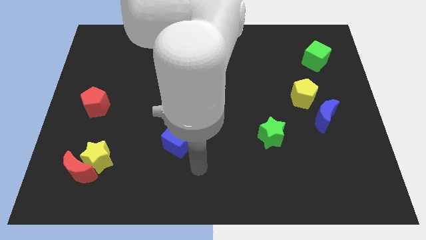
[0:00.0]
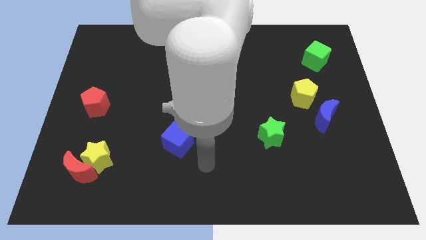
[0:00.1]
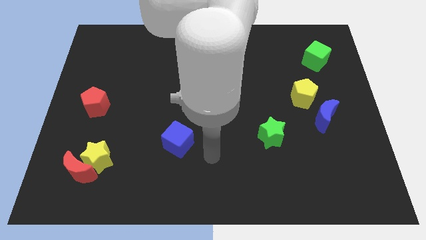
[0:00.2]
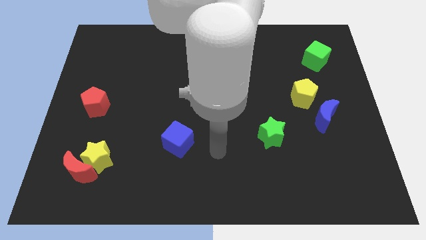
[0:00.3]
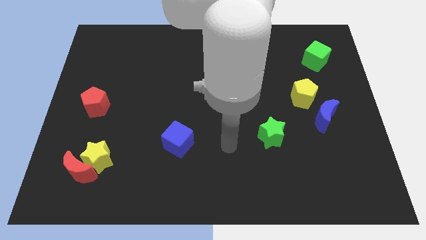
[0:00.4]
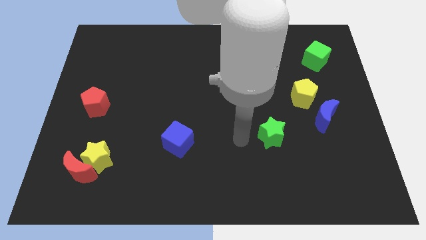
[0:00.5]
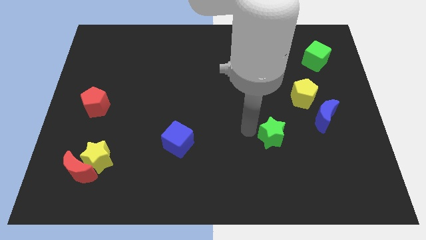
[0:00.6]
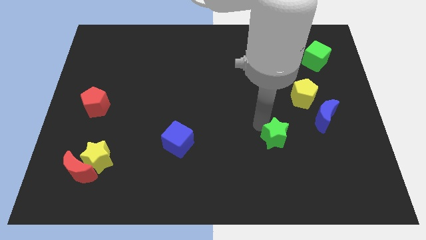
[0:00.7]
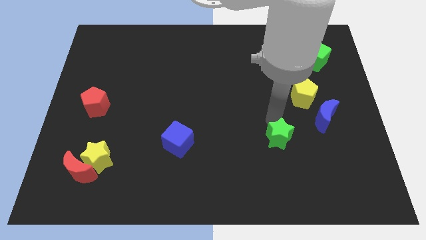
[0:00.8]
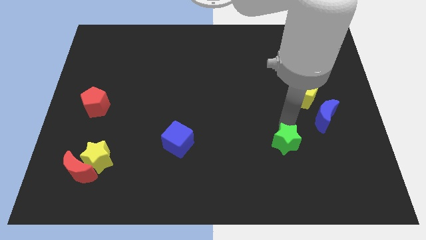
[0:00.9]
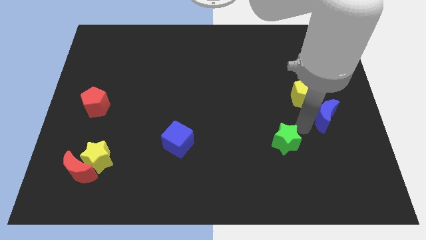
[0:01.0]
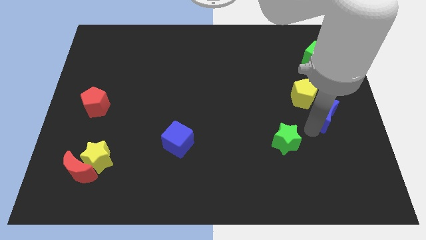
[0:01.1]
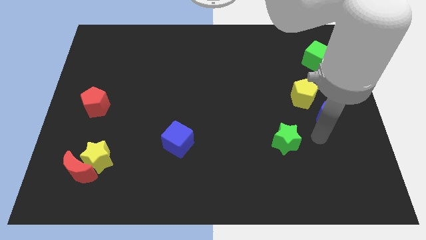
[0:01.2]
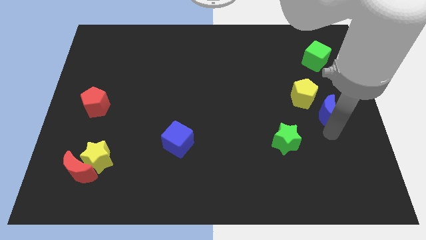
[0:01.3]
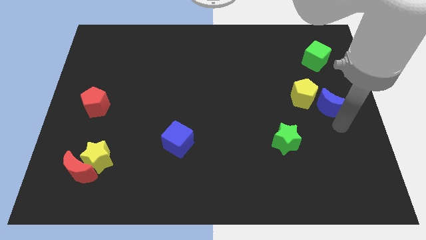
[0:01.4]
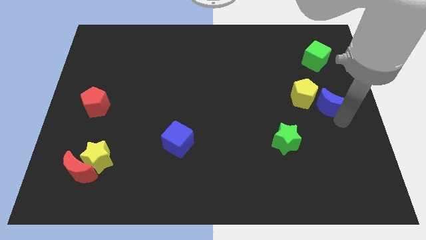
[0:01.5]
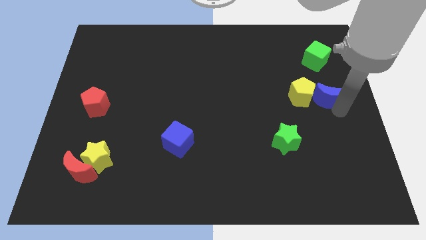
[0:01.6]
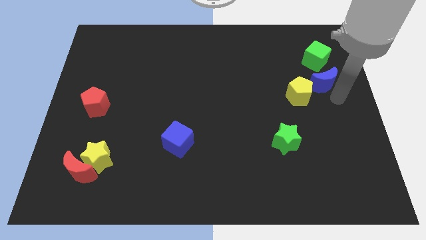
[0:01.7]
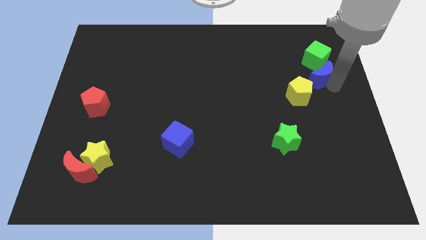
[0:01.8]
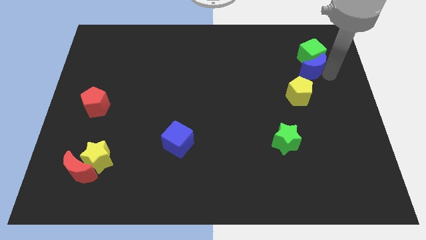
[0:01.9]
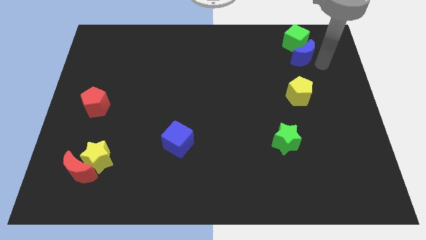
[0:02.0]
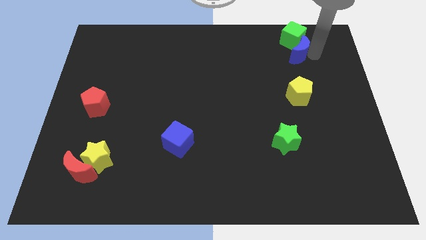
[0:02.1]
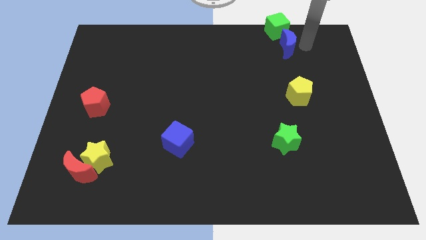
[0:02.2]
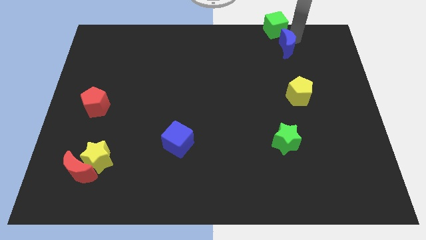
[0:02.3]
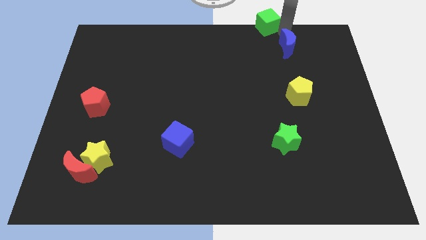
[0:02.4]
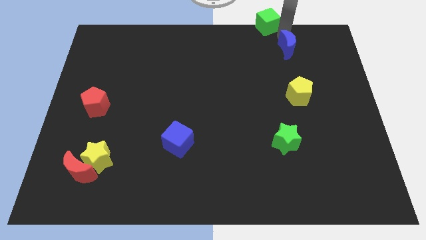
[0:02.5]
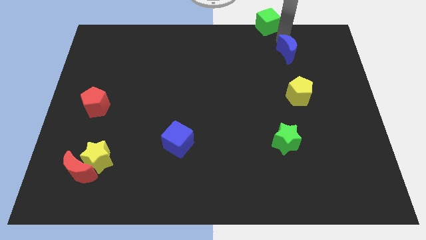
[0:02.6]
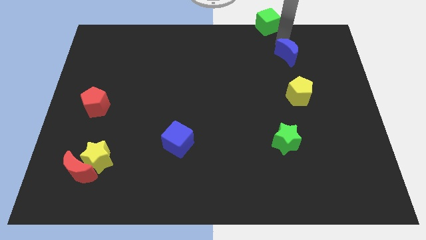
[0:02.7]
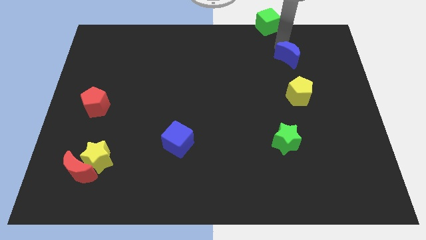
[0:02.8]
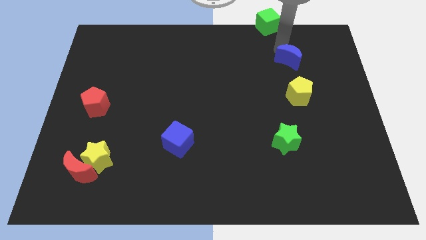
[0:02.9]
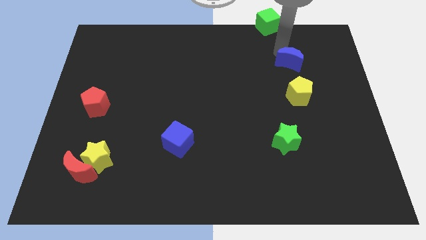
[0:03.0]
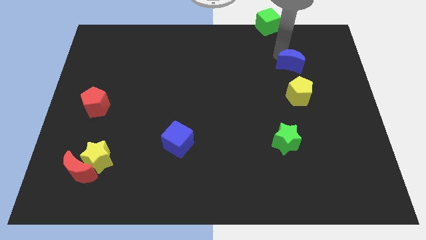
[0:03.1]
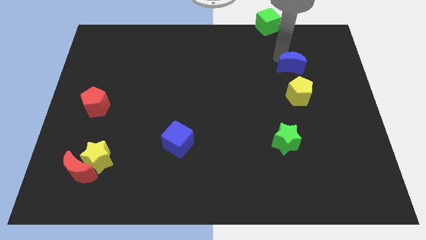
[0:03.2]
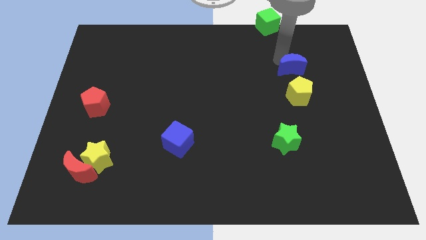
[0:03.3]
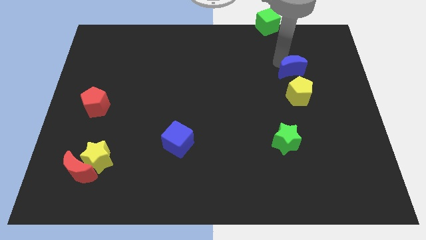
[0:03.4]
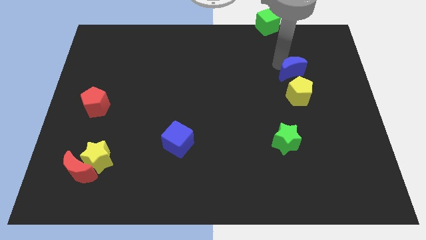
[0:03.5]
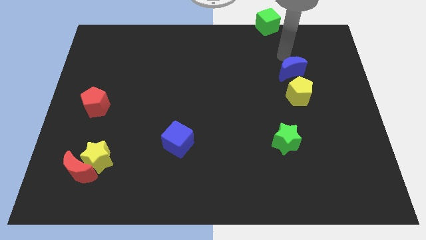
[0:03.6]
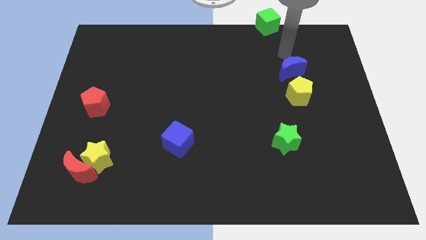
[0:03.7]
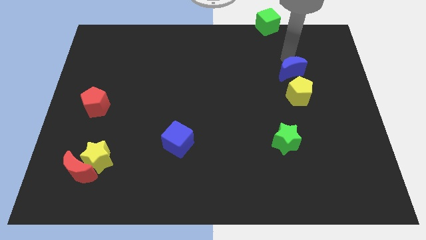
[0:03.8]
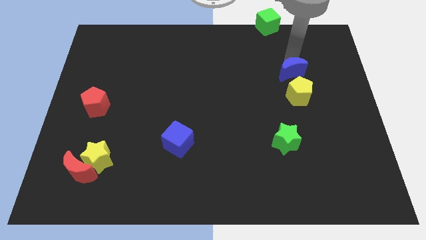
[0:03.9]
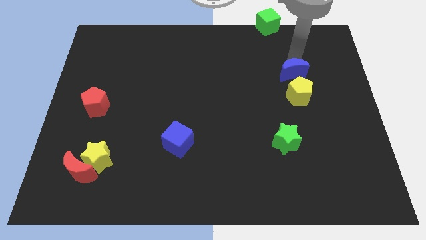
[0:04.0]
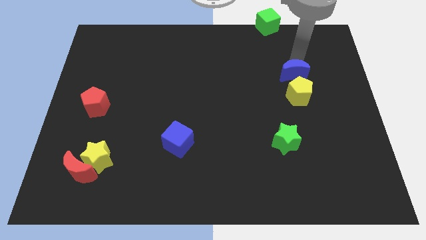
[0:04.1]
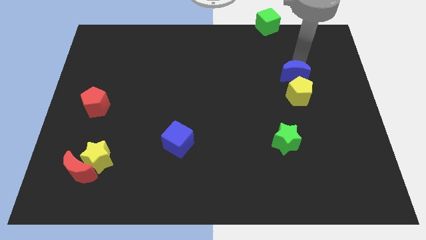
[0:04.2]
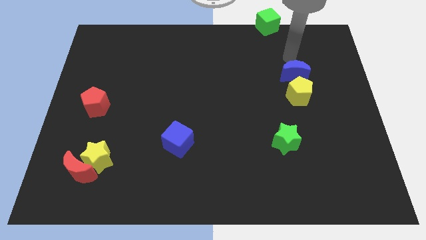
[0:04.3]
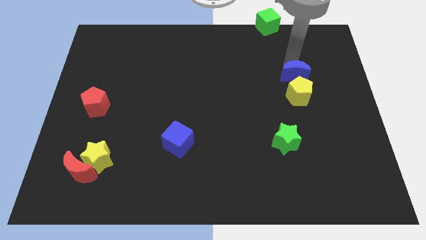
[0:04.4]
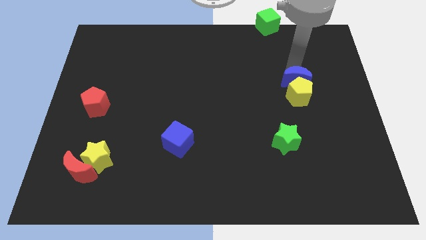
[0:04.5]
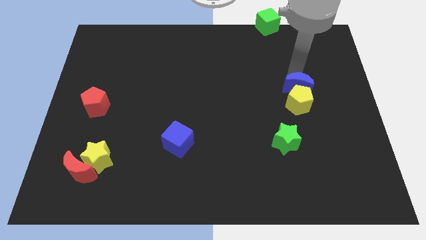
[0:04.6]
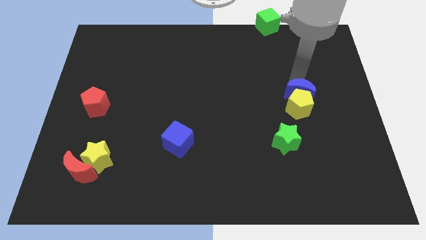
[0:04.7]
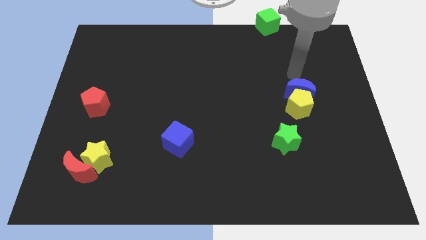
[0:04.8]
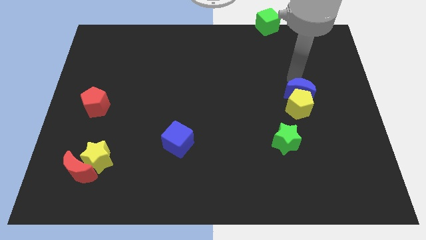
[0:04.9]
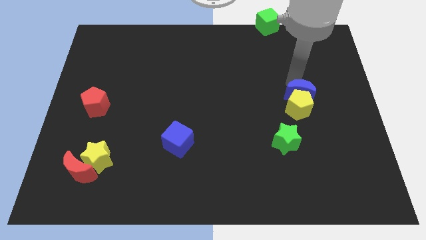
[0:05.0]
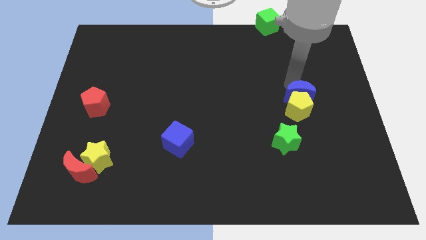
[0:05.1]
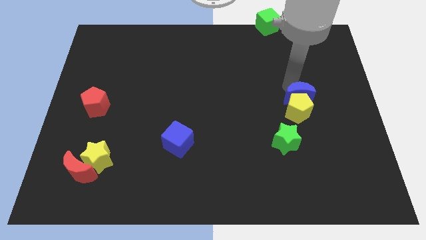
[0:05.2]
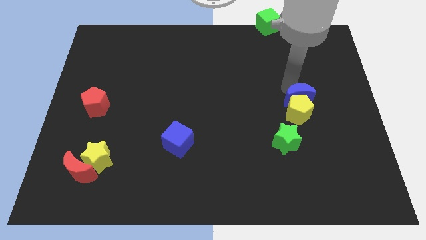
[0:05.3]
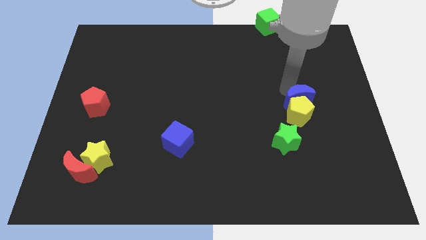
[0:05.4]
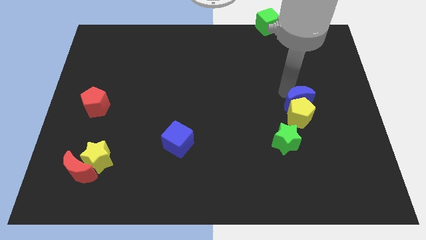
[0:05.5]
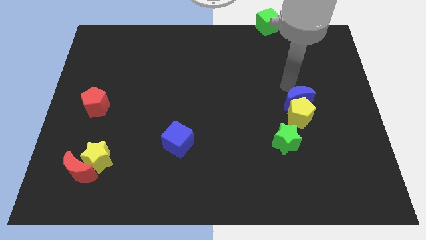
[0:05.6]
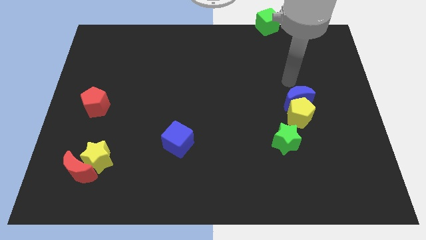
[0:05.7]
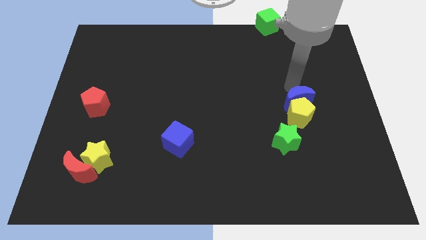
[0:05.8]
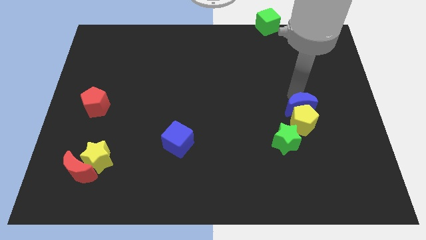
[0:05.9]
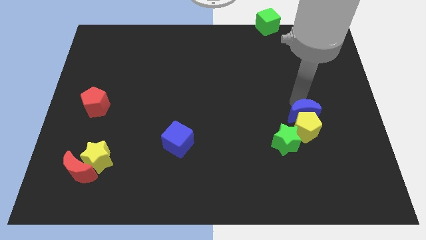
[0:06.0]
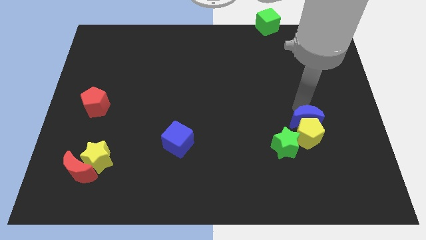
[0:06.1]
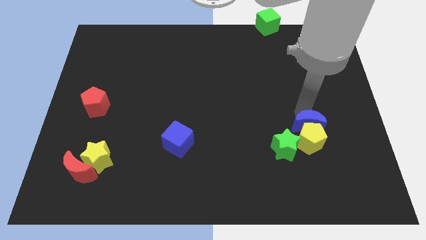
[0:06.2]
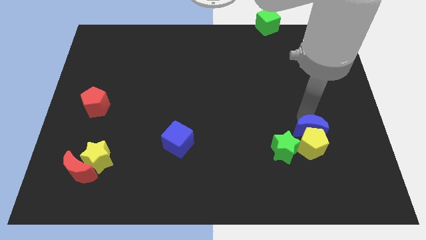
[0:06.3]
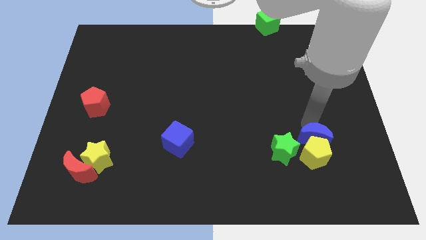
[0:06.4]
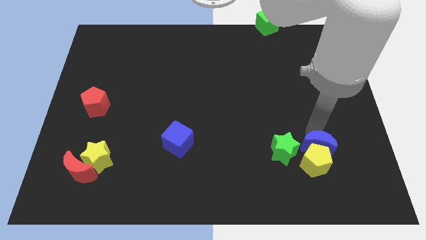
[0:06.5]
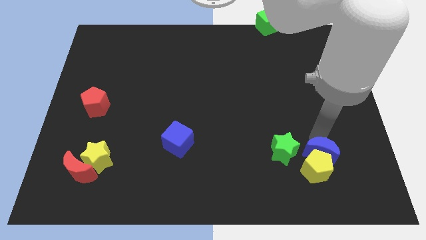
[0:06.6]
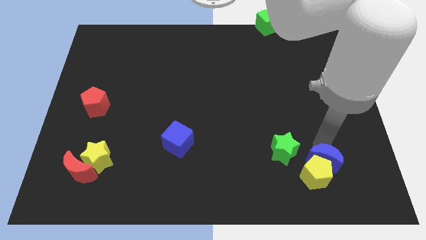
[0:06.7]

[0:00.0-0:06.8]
push the blue moon diagonally down and to the right of the green star

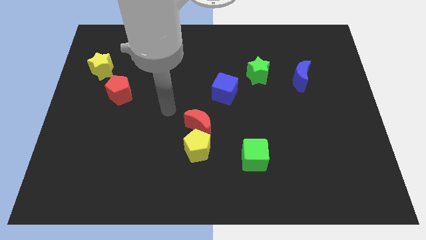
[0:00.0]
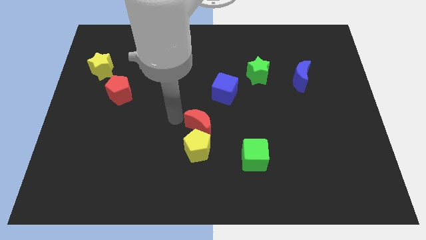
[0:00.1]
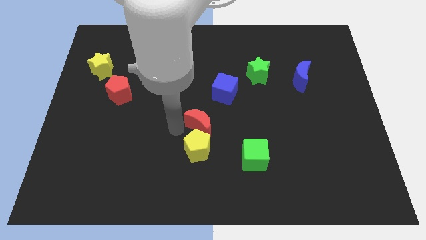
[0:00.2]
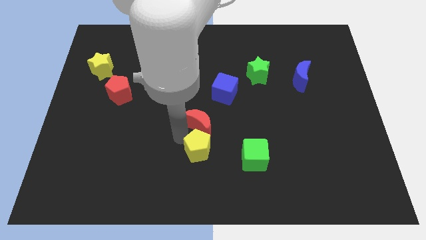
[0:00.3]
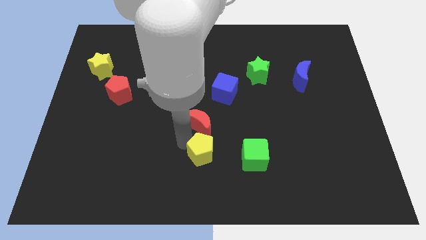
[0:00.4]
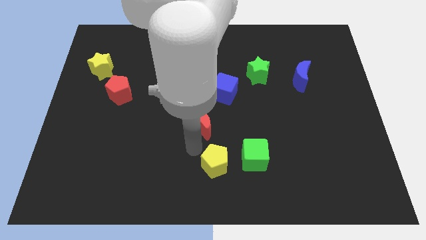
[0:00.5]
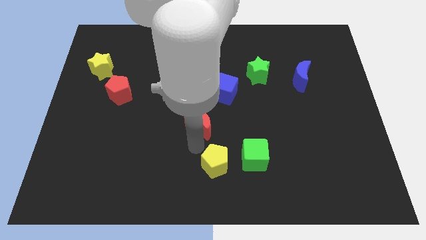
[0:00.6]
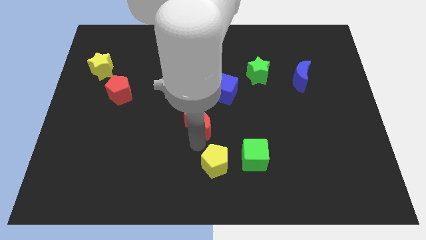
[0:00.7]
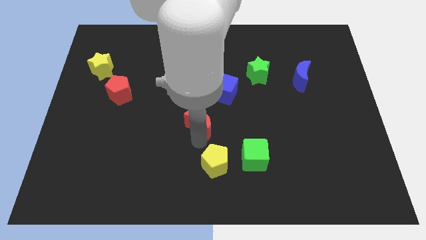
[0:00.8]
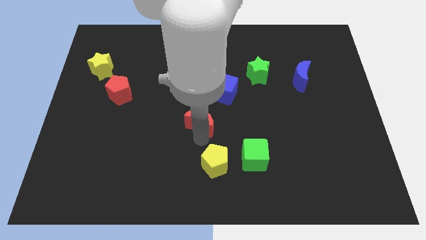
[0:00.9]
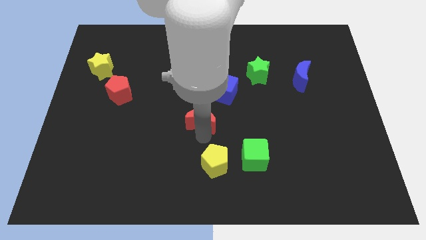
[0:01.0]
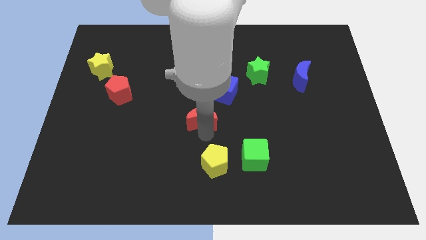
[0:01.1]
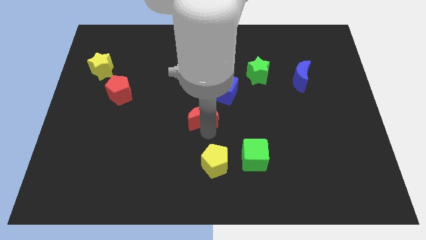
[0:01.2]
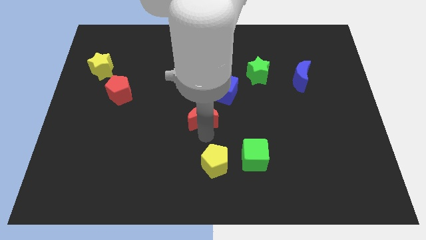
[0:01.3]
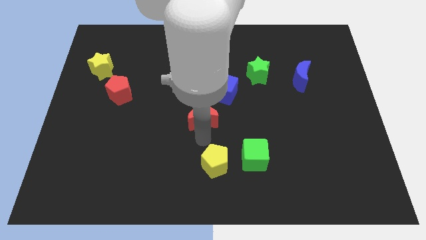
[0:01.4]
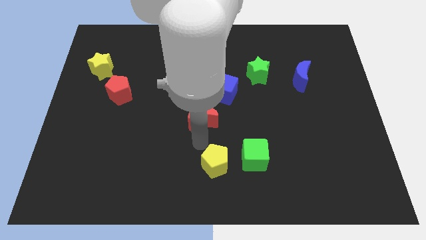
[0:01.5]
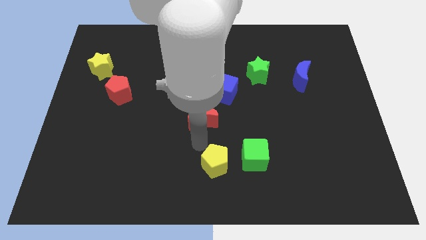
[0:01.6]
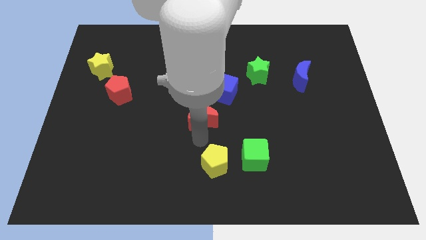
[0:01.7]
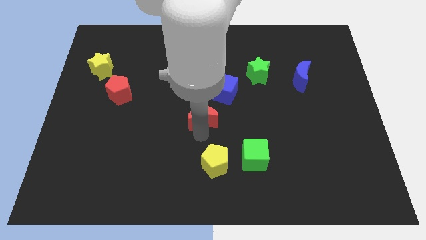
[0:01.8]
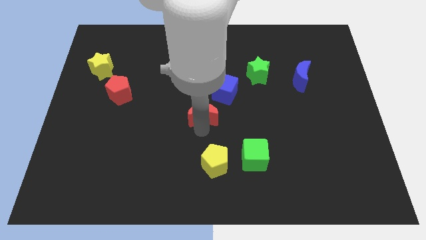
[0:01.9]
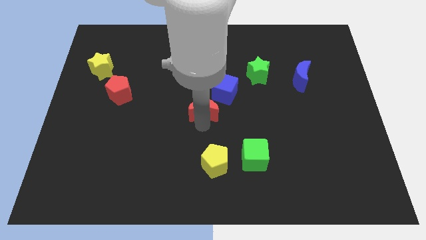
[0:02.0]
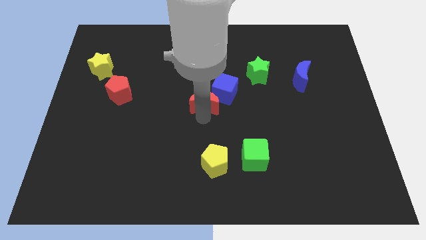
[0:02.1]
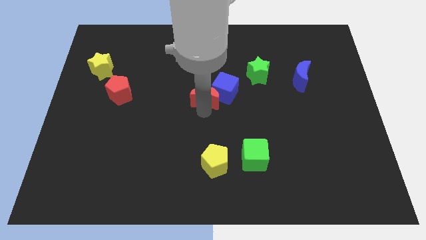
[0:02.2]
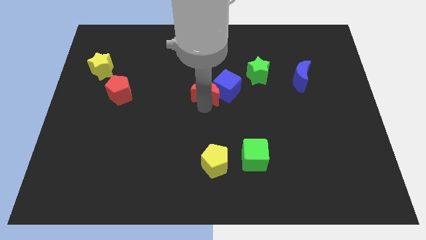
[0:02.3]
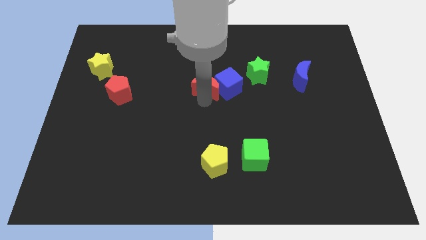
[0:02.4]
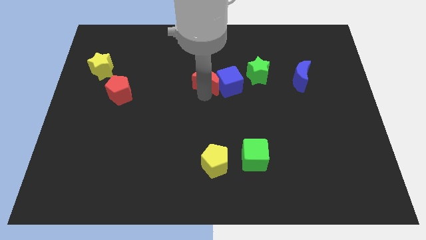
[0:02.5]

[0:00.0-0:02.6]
push the red moon just left of the green star
